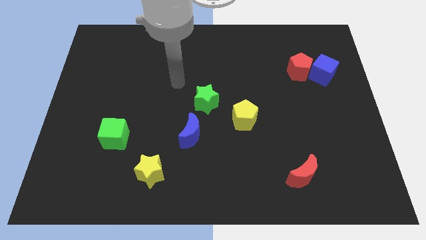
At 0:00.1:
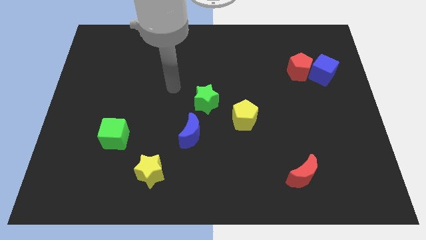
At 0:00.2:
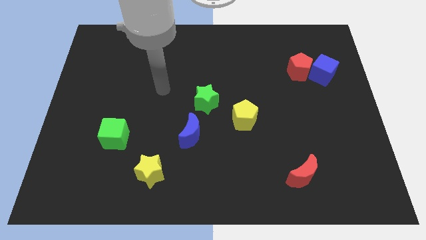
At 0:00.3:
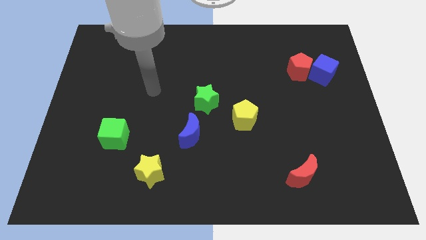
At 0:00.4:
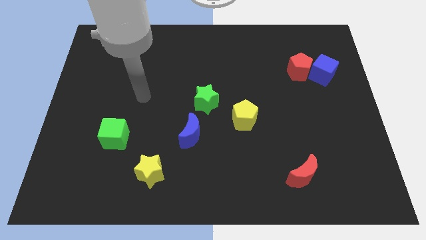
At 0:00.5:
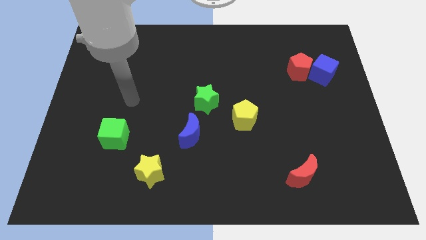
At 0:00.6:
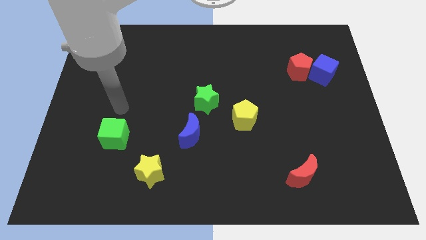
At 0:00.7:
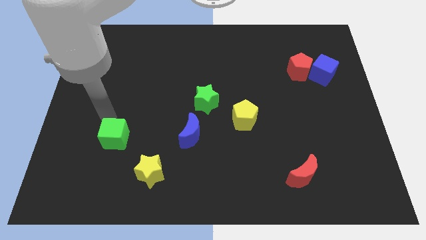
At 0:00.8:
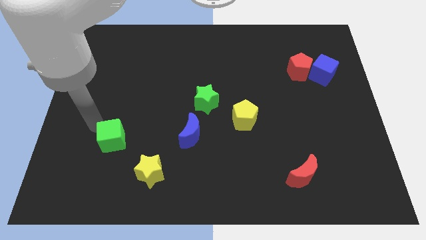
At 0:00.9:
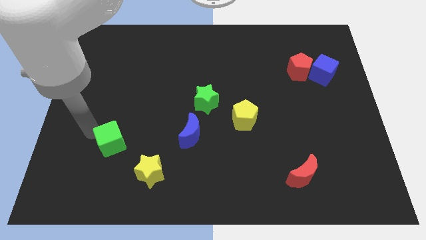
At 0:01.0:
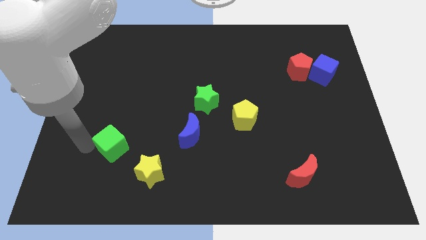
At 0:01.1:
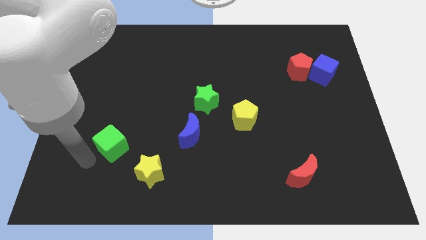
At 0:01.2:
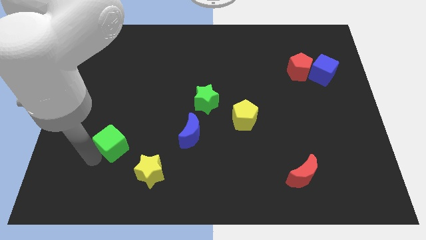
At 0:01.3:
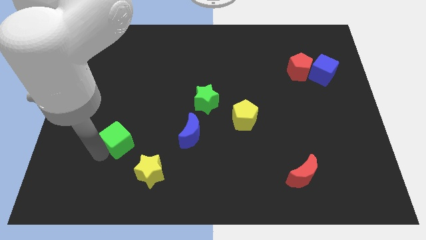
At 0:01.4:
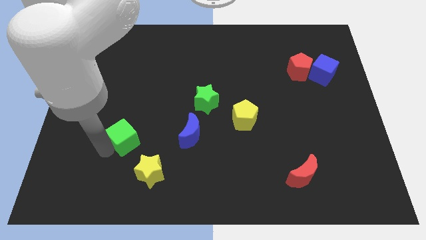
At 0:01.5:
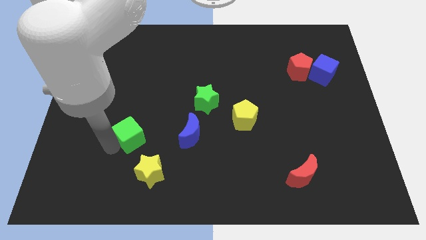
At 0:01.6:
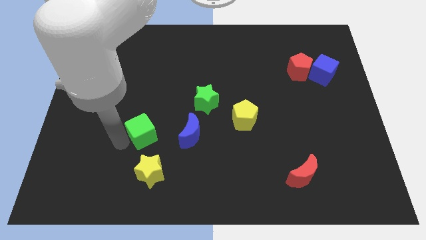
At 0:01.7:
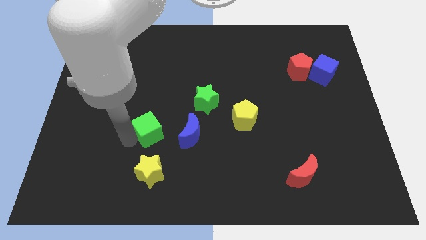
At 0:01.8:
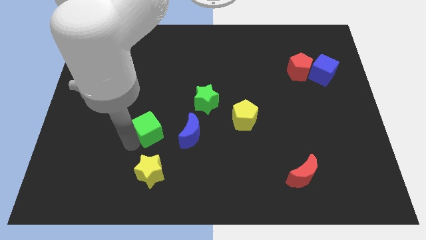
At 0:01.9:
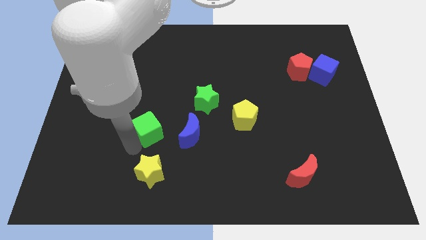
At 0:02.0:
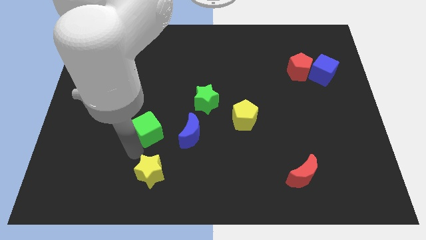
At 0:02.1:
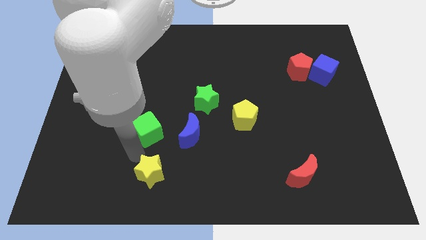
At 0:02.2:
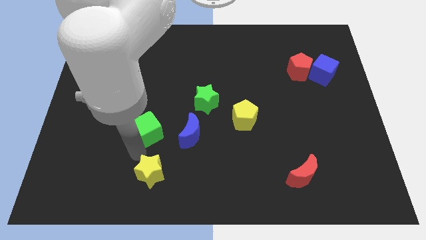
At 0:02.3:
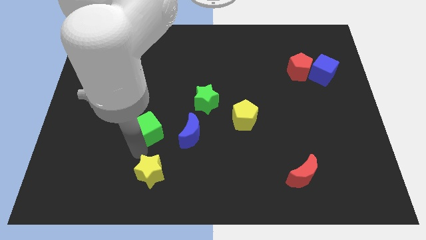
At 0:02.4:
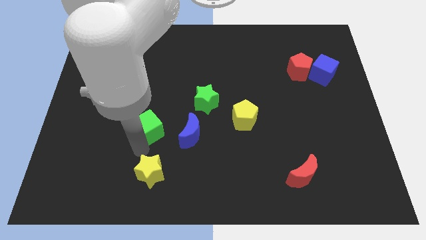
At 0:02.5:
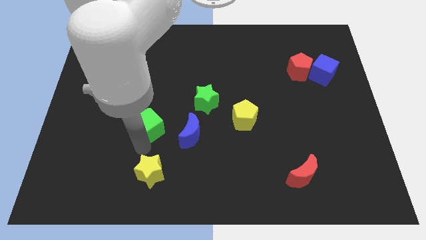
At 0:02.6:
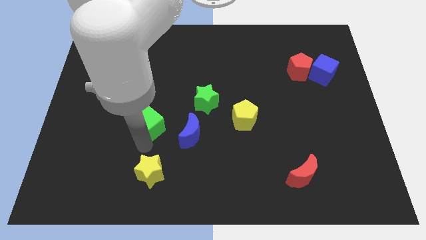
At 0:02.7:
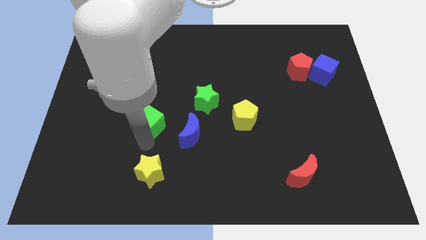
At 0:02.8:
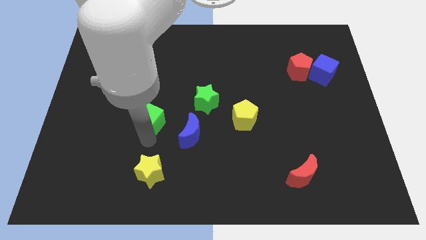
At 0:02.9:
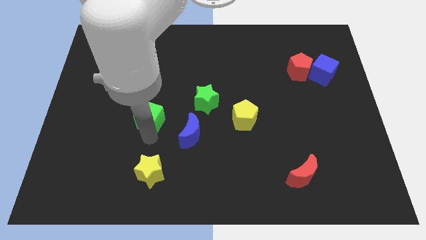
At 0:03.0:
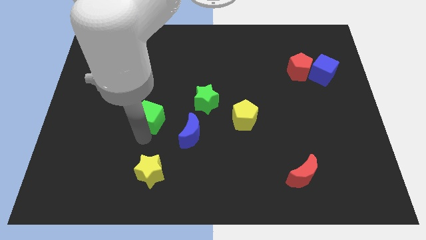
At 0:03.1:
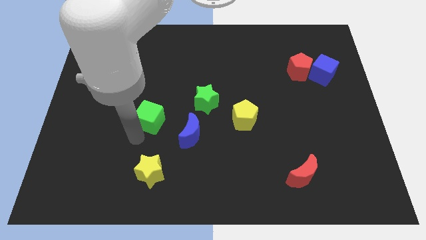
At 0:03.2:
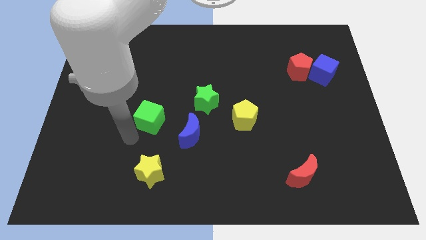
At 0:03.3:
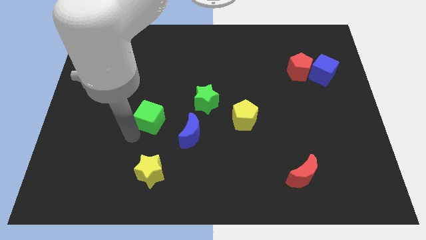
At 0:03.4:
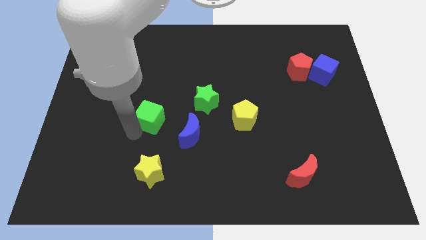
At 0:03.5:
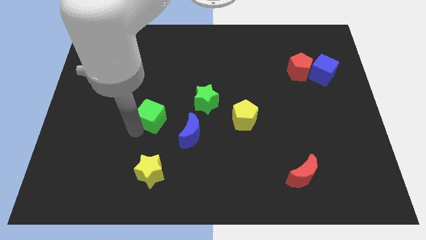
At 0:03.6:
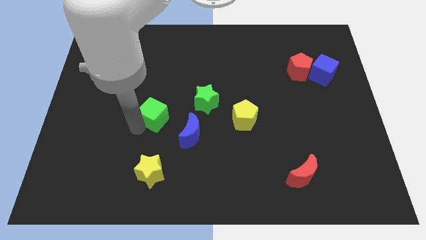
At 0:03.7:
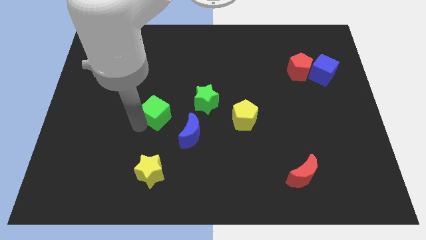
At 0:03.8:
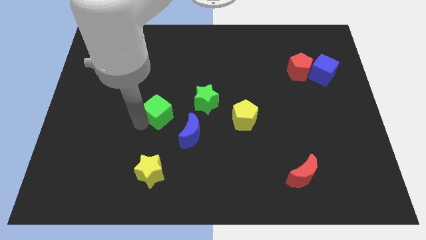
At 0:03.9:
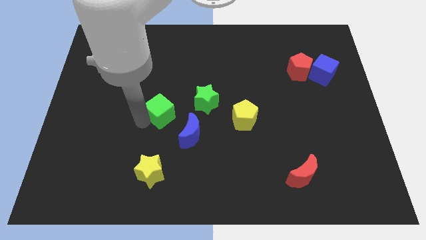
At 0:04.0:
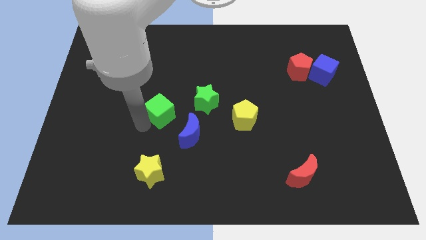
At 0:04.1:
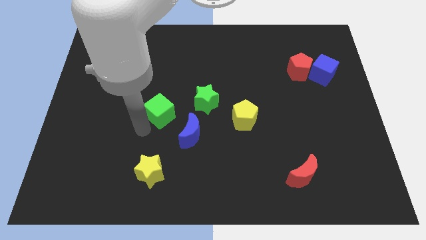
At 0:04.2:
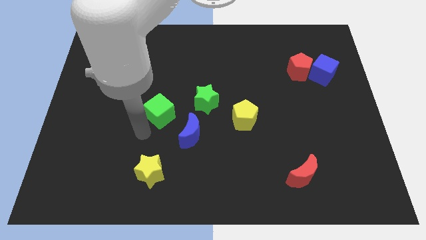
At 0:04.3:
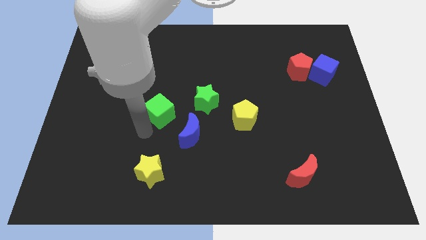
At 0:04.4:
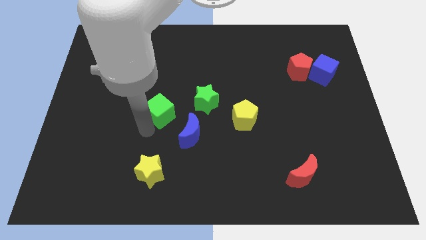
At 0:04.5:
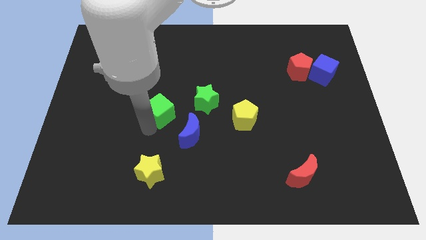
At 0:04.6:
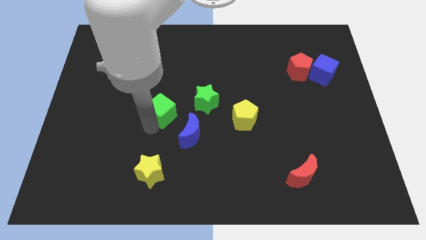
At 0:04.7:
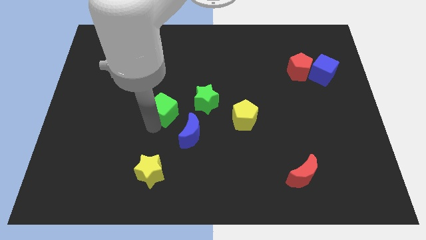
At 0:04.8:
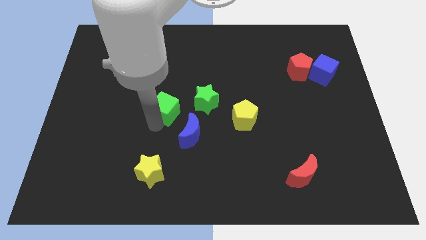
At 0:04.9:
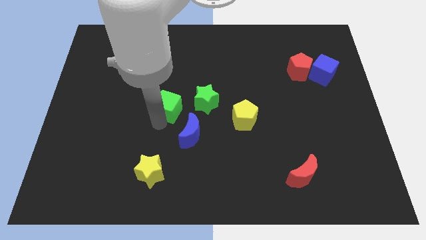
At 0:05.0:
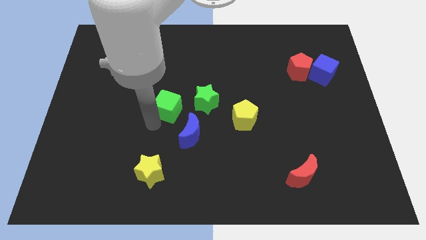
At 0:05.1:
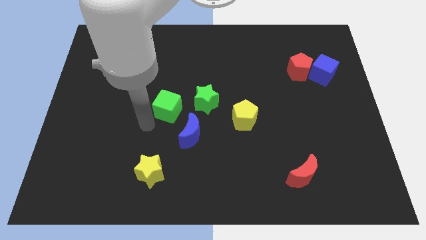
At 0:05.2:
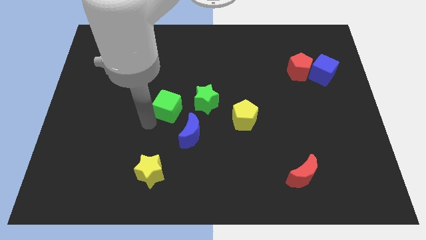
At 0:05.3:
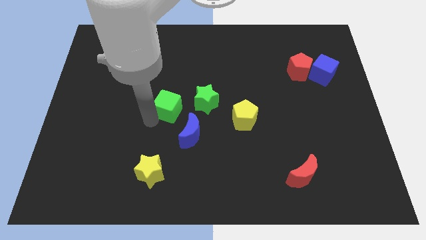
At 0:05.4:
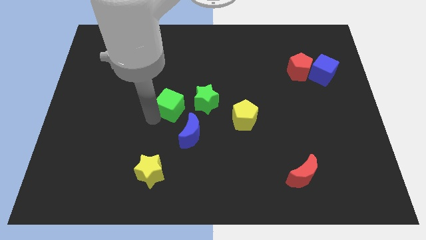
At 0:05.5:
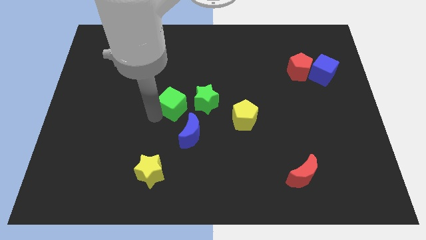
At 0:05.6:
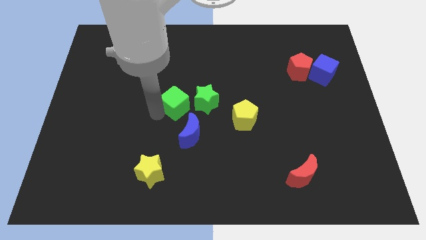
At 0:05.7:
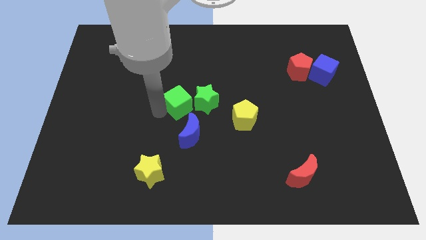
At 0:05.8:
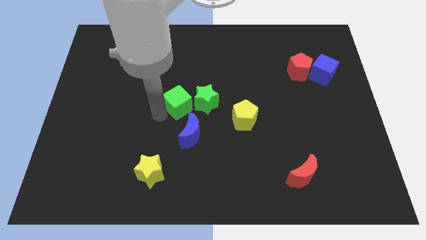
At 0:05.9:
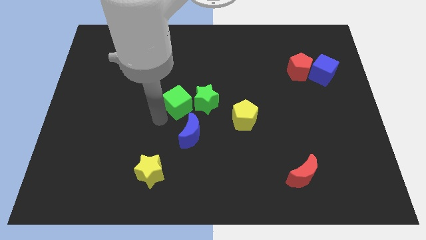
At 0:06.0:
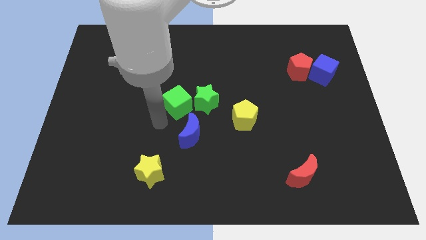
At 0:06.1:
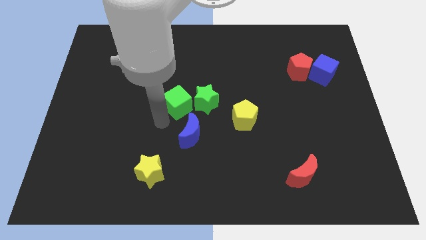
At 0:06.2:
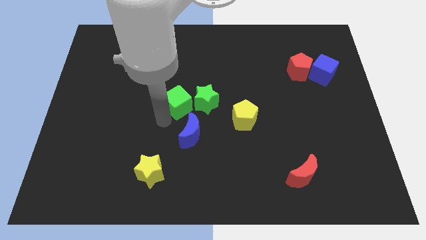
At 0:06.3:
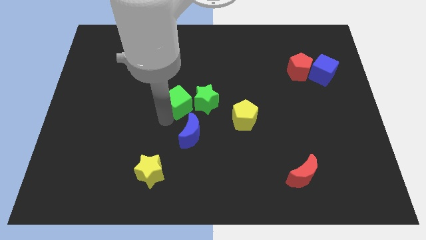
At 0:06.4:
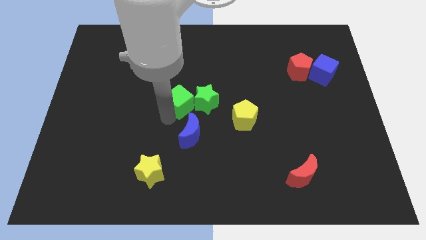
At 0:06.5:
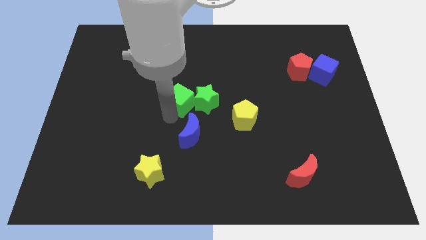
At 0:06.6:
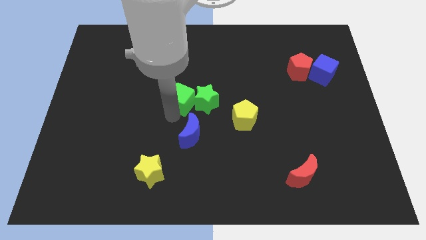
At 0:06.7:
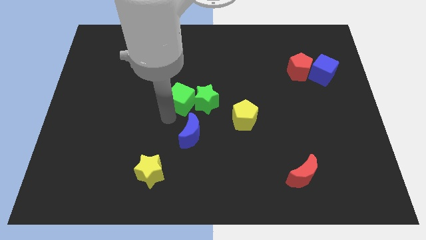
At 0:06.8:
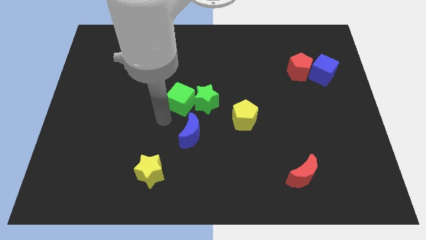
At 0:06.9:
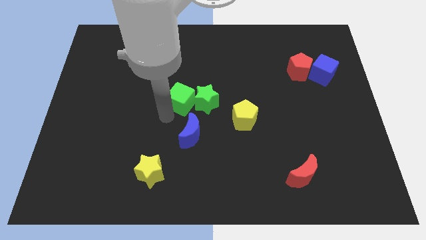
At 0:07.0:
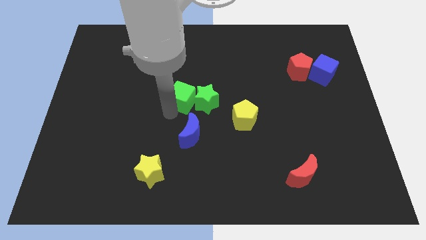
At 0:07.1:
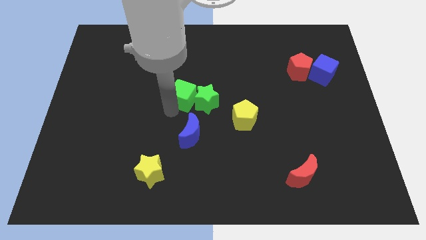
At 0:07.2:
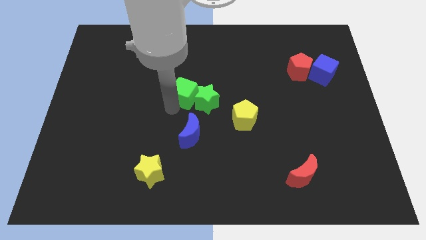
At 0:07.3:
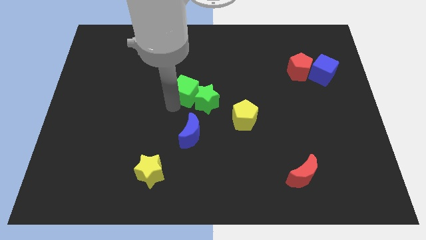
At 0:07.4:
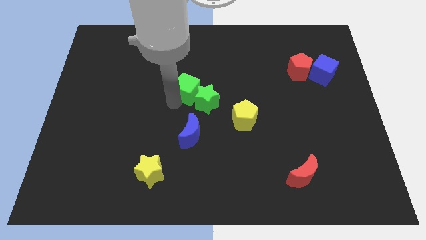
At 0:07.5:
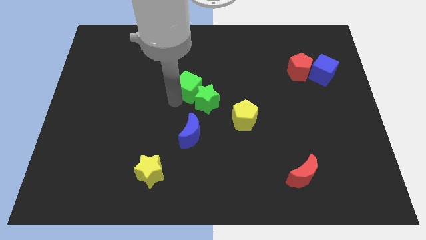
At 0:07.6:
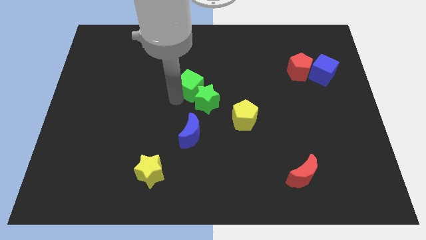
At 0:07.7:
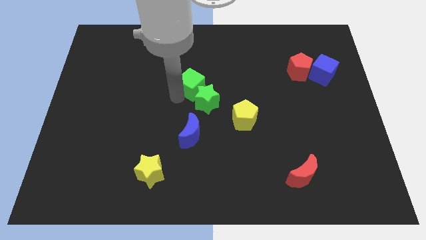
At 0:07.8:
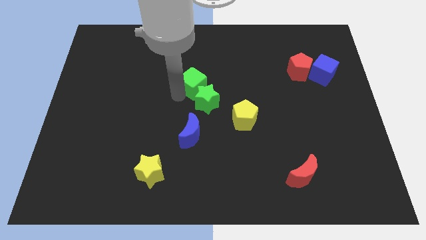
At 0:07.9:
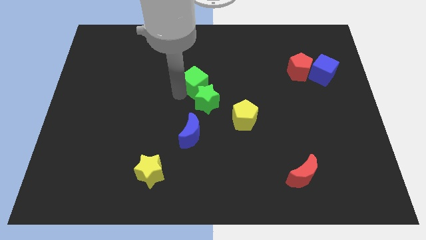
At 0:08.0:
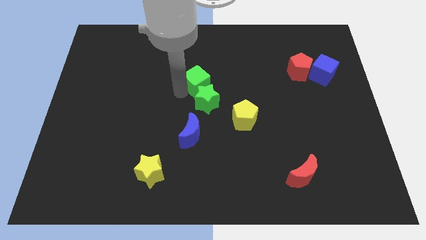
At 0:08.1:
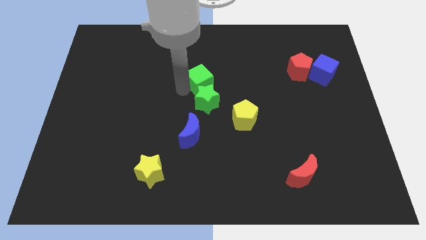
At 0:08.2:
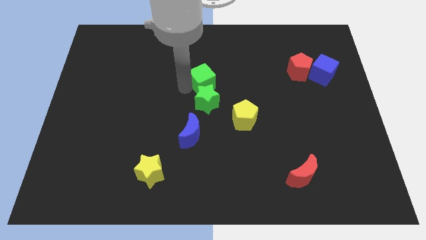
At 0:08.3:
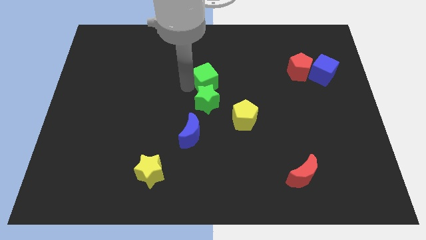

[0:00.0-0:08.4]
put the green cube diagonally up and to the right of the green star
